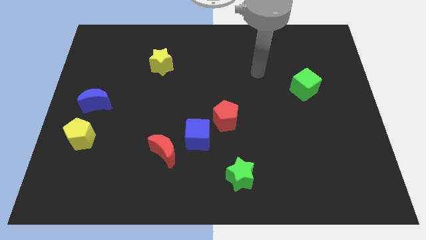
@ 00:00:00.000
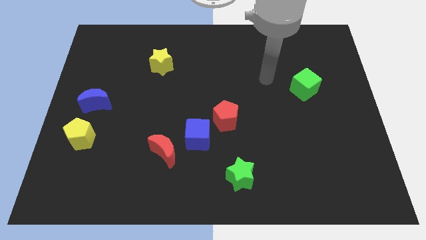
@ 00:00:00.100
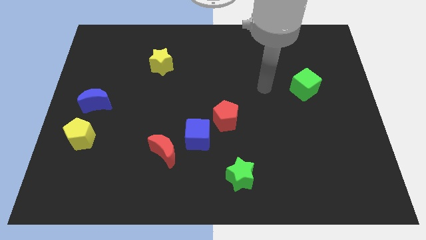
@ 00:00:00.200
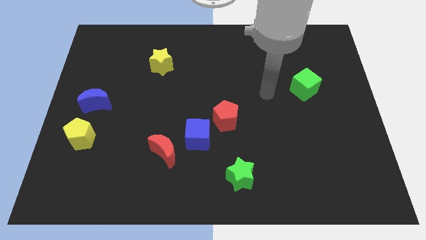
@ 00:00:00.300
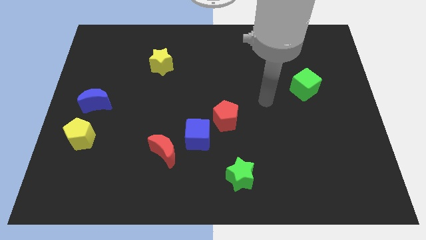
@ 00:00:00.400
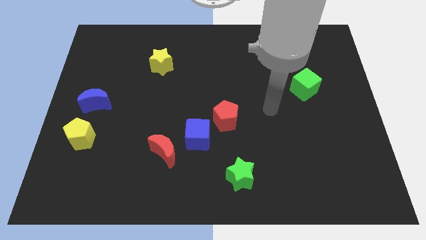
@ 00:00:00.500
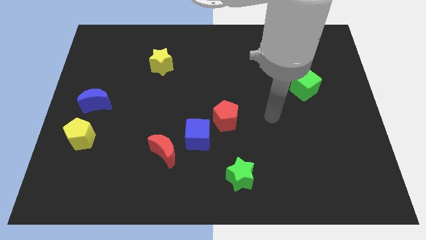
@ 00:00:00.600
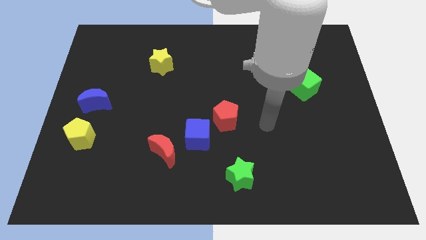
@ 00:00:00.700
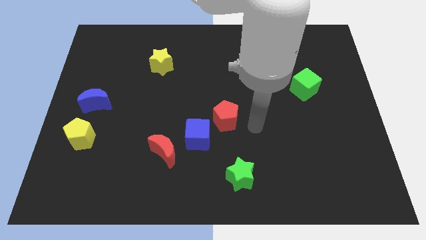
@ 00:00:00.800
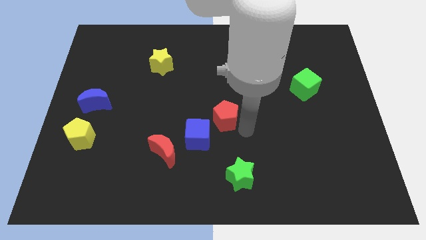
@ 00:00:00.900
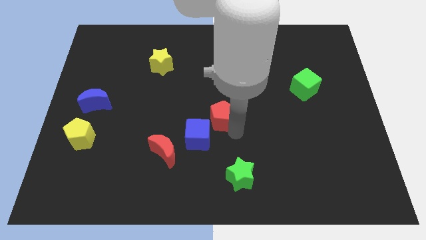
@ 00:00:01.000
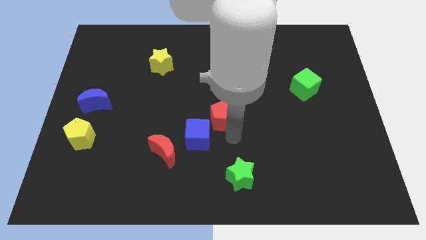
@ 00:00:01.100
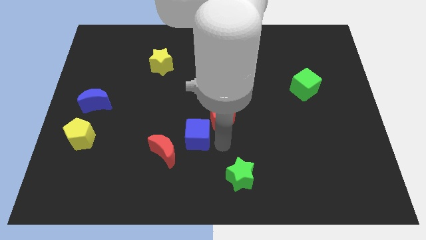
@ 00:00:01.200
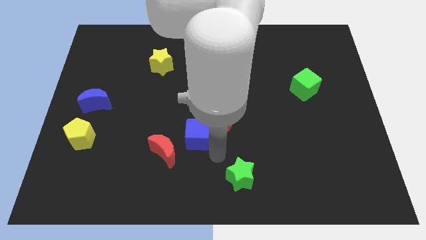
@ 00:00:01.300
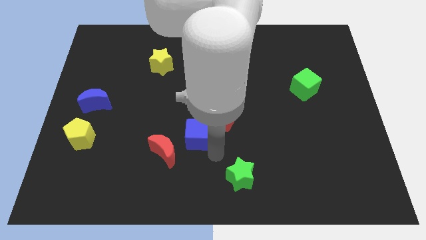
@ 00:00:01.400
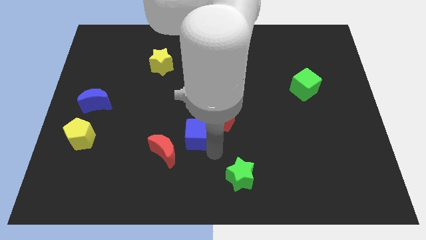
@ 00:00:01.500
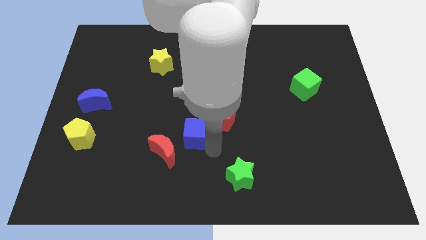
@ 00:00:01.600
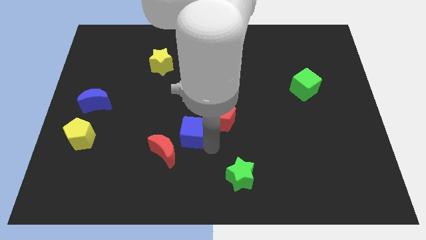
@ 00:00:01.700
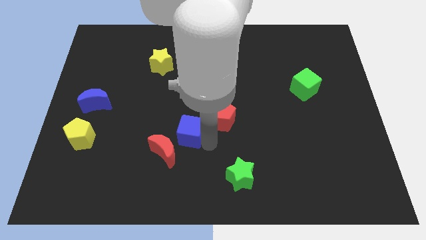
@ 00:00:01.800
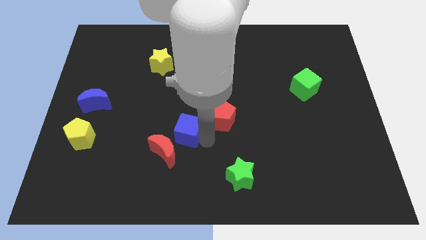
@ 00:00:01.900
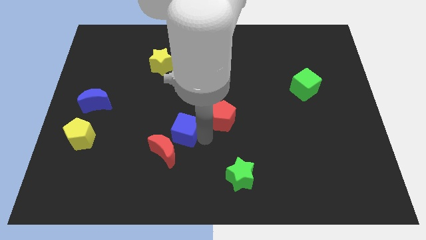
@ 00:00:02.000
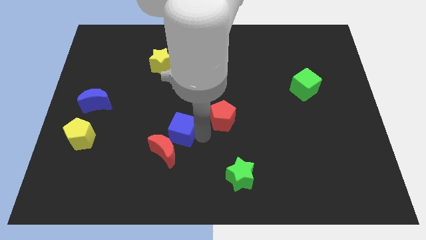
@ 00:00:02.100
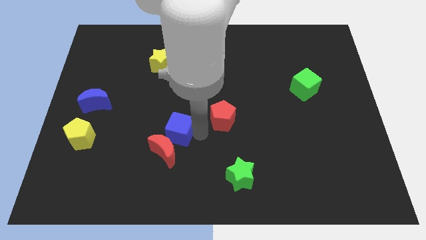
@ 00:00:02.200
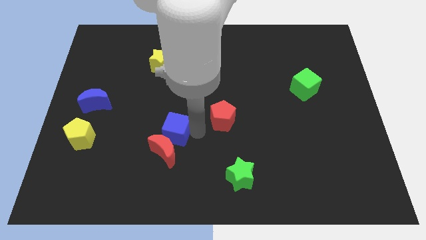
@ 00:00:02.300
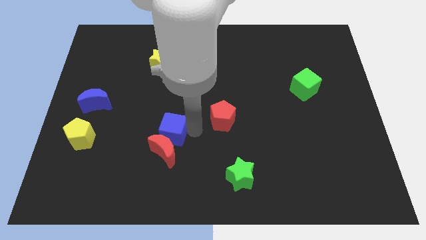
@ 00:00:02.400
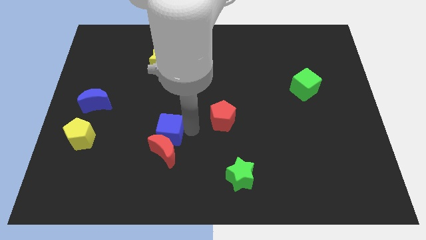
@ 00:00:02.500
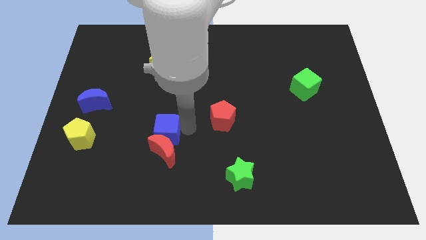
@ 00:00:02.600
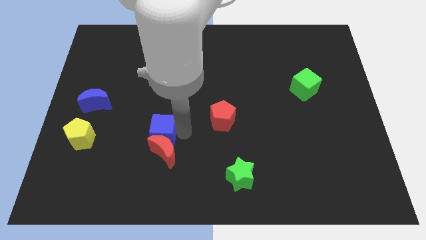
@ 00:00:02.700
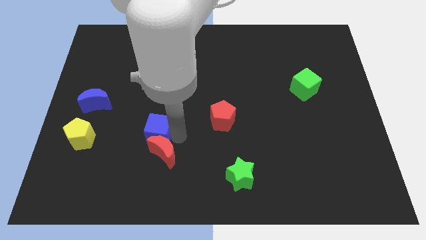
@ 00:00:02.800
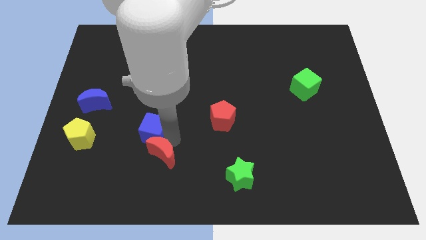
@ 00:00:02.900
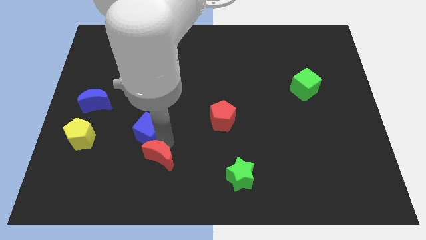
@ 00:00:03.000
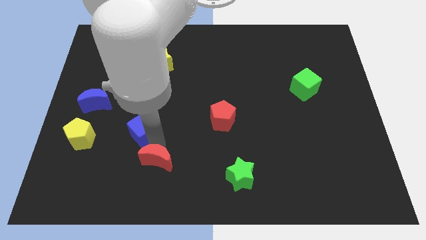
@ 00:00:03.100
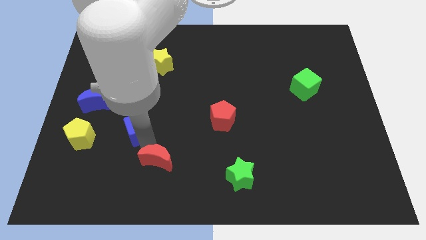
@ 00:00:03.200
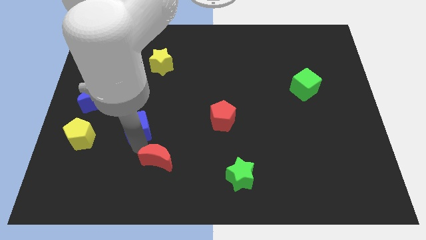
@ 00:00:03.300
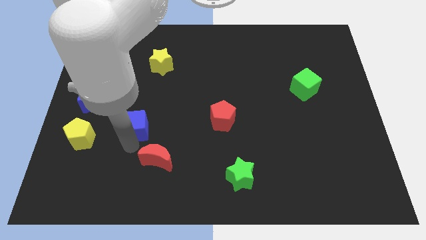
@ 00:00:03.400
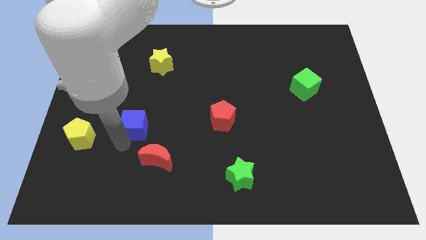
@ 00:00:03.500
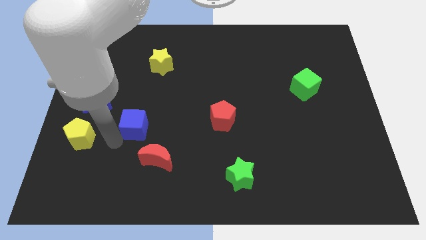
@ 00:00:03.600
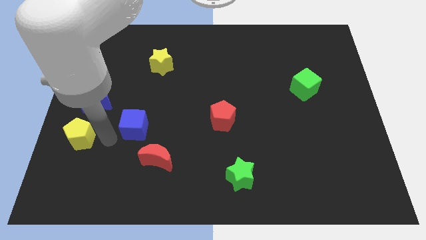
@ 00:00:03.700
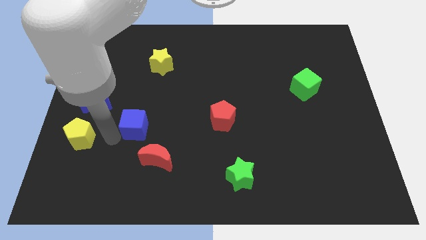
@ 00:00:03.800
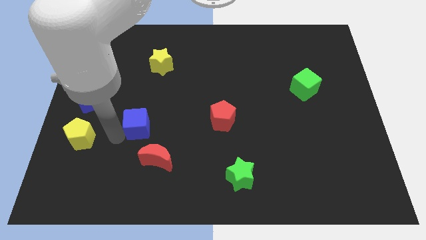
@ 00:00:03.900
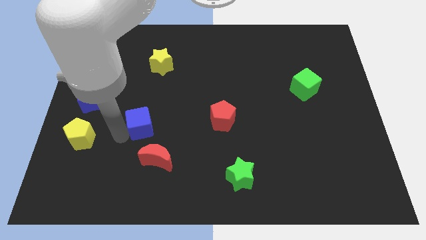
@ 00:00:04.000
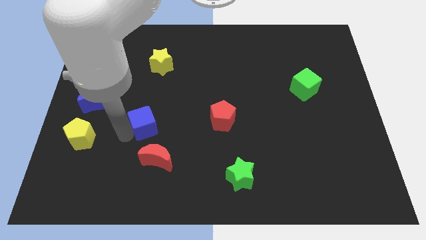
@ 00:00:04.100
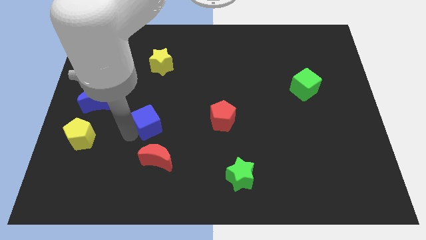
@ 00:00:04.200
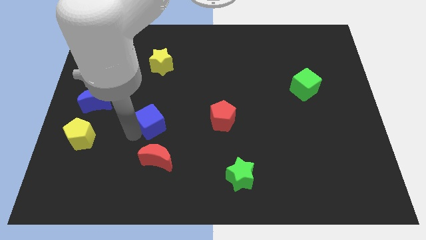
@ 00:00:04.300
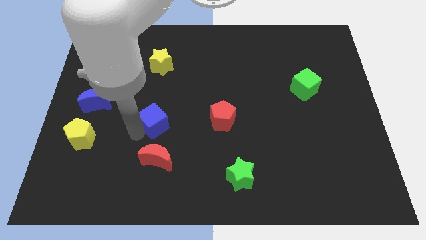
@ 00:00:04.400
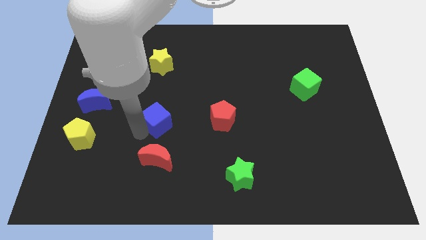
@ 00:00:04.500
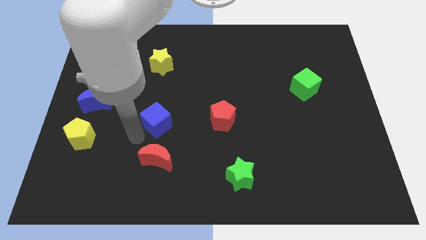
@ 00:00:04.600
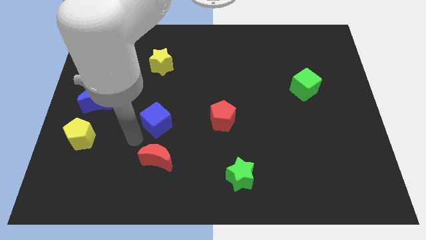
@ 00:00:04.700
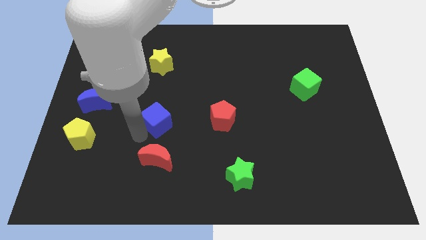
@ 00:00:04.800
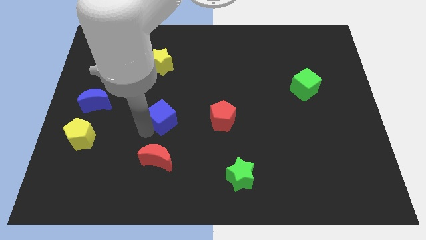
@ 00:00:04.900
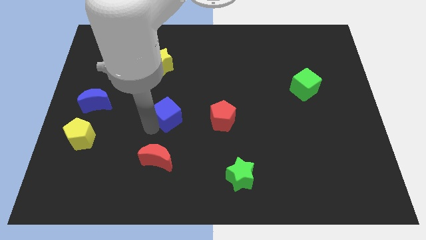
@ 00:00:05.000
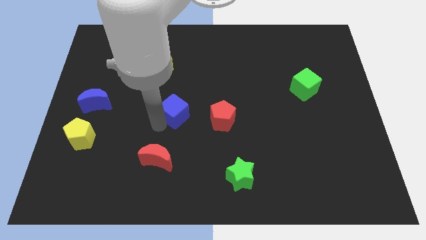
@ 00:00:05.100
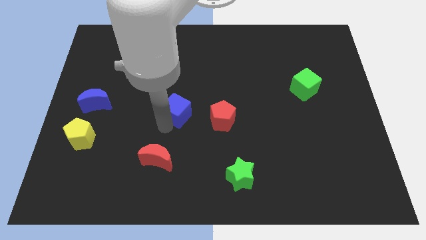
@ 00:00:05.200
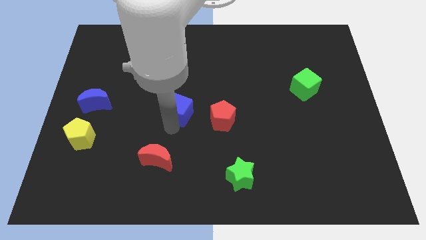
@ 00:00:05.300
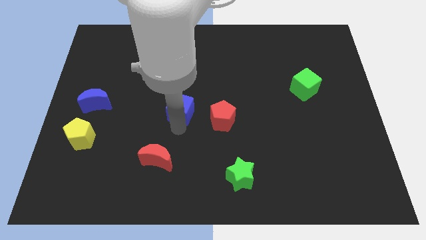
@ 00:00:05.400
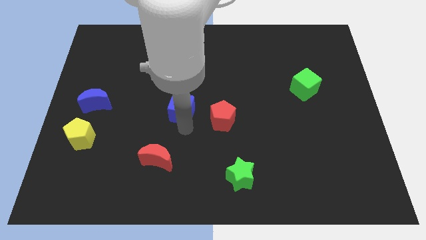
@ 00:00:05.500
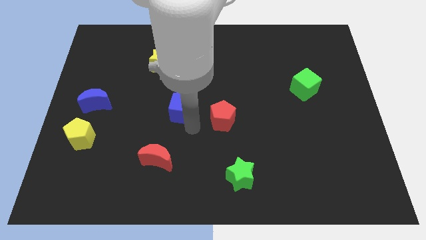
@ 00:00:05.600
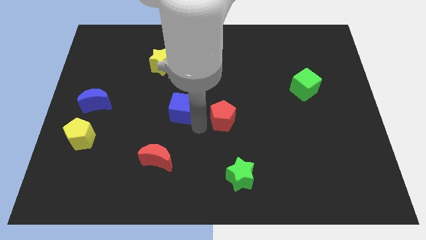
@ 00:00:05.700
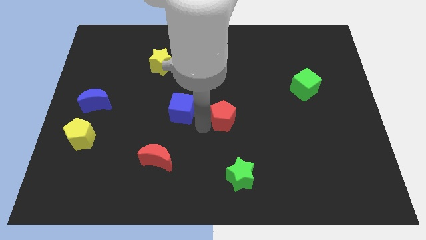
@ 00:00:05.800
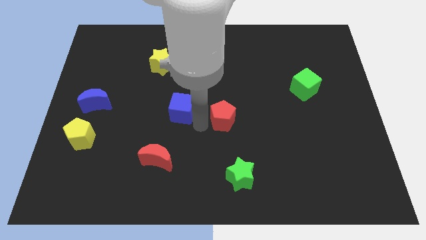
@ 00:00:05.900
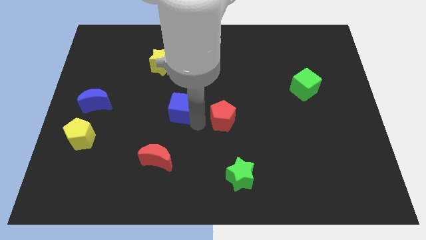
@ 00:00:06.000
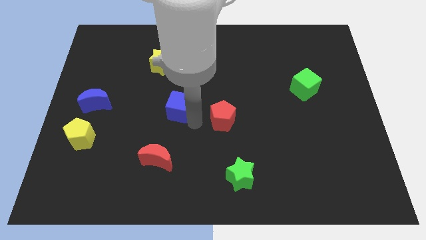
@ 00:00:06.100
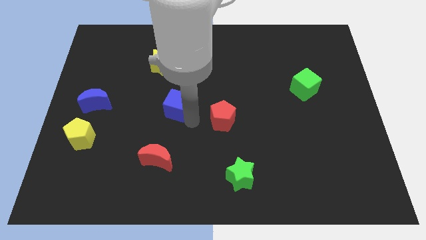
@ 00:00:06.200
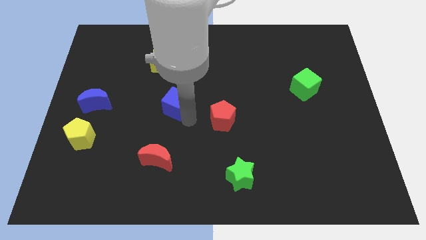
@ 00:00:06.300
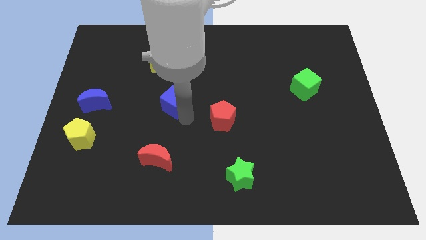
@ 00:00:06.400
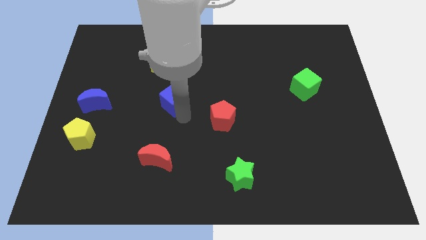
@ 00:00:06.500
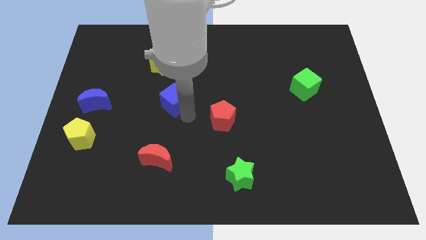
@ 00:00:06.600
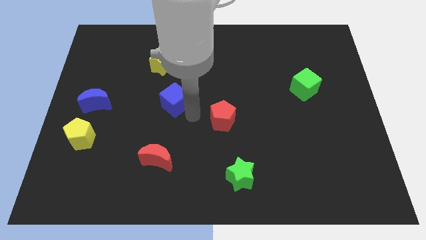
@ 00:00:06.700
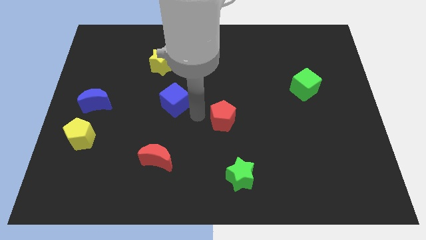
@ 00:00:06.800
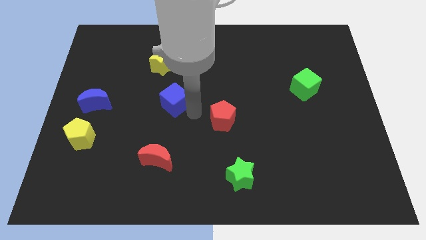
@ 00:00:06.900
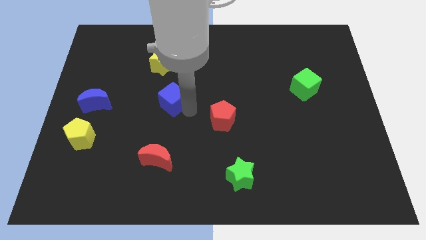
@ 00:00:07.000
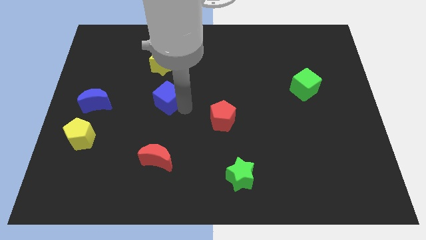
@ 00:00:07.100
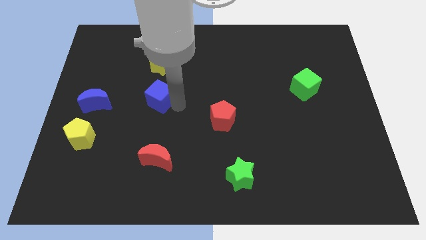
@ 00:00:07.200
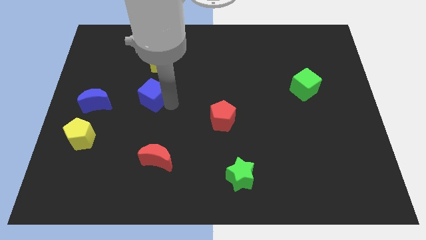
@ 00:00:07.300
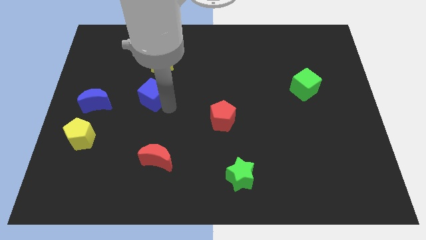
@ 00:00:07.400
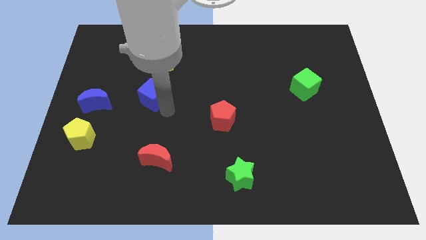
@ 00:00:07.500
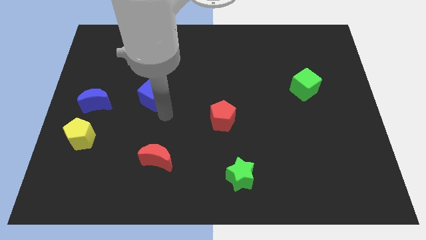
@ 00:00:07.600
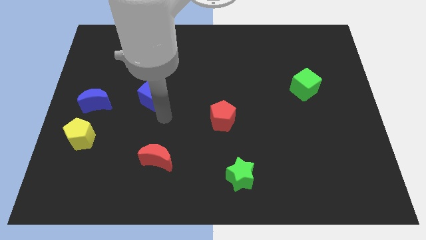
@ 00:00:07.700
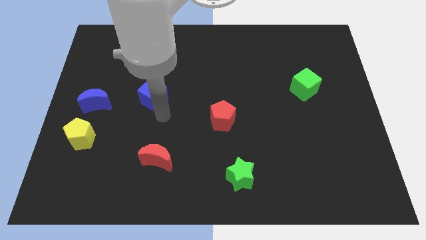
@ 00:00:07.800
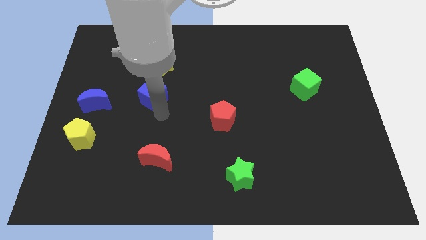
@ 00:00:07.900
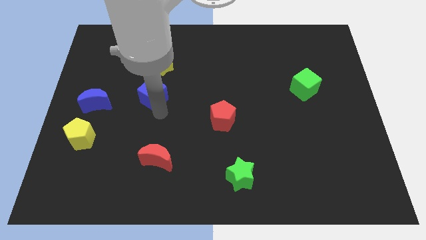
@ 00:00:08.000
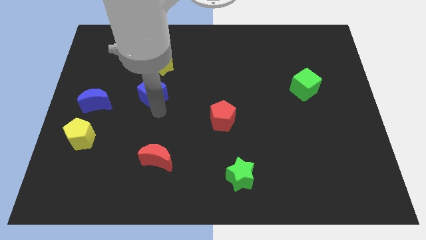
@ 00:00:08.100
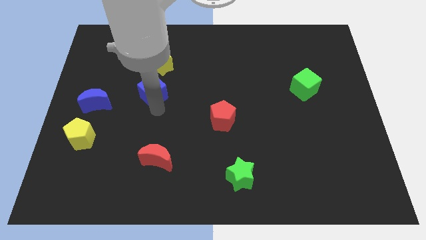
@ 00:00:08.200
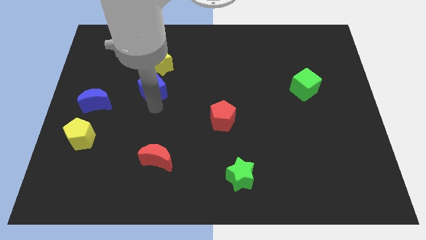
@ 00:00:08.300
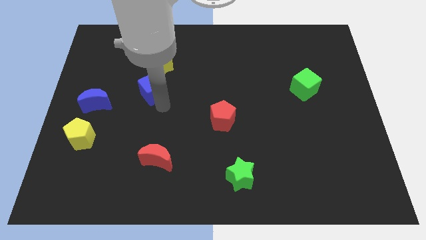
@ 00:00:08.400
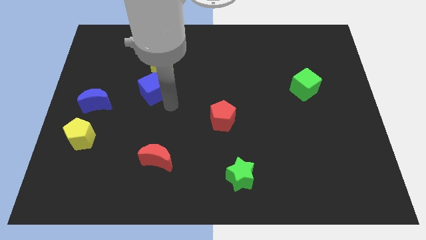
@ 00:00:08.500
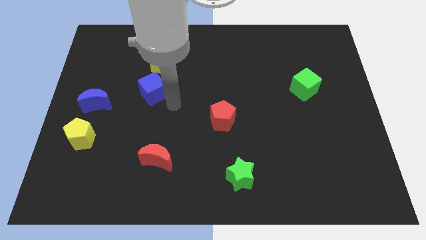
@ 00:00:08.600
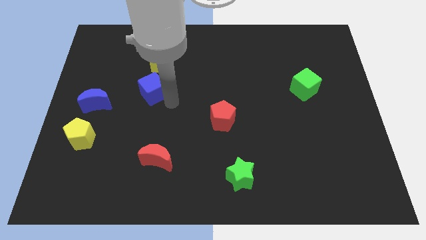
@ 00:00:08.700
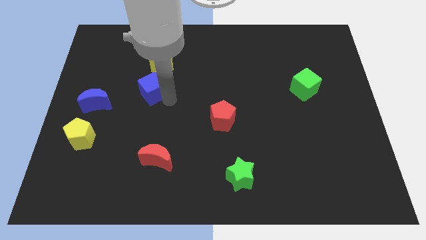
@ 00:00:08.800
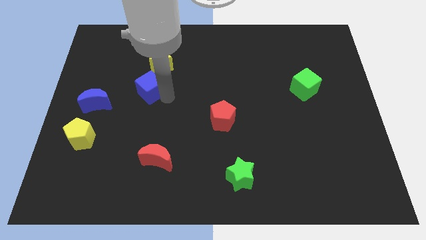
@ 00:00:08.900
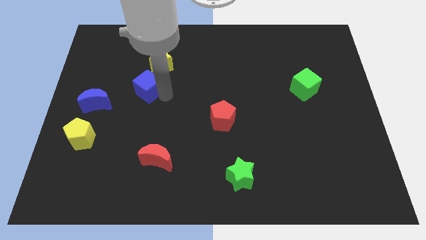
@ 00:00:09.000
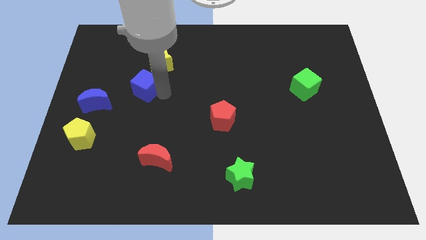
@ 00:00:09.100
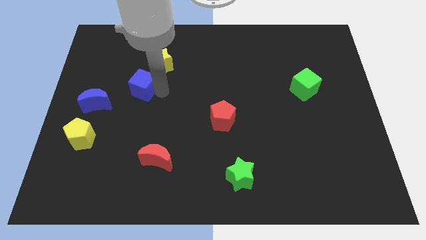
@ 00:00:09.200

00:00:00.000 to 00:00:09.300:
push the blue cube upwards and left
